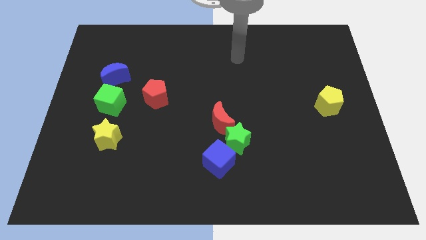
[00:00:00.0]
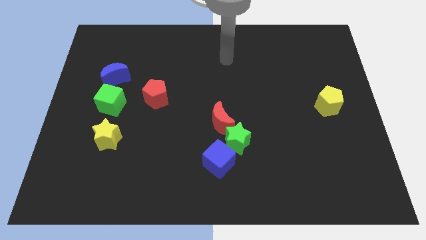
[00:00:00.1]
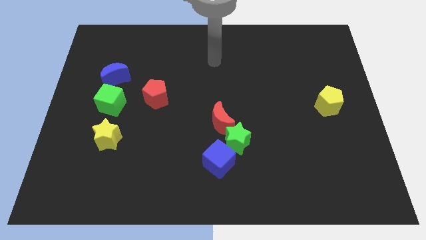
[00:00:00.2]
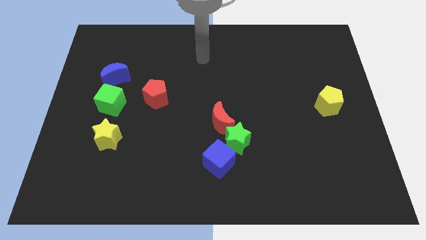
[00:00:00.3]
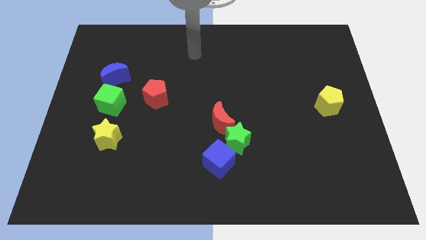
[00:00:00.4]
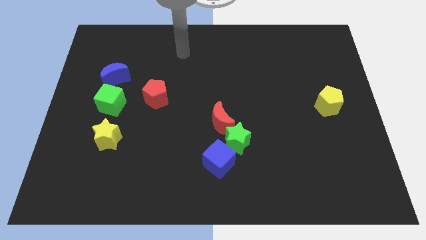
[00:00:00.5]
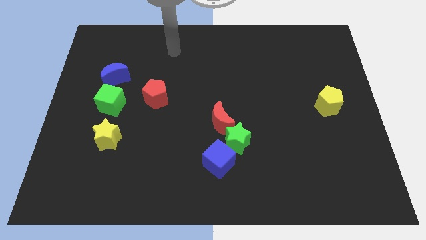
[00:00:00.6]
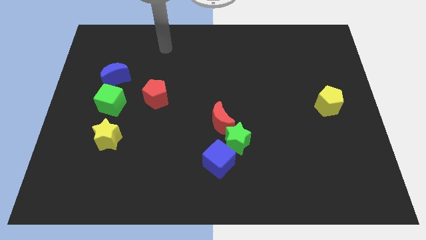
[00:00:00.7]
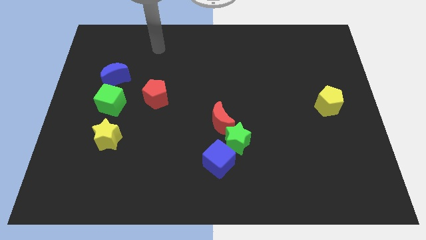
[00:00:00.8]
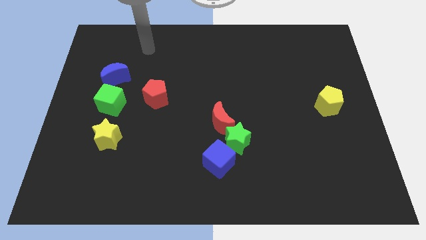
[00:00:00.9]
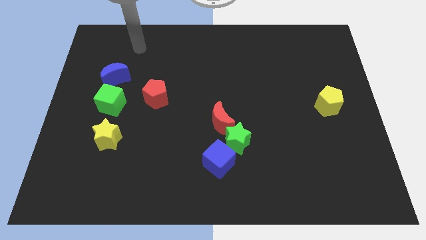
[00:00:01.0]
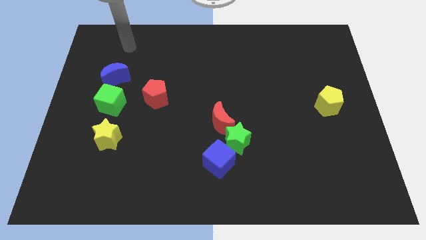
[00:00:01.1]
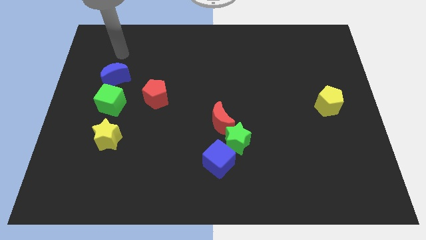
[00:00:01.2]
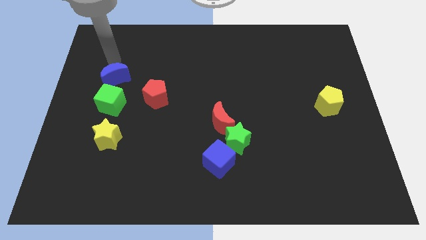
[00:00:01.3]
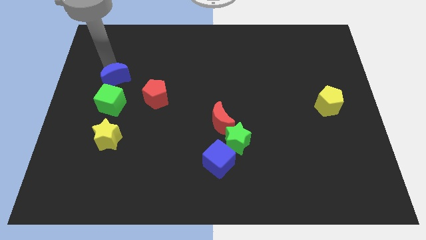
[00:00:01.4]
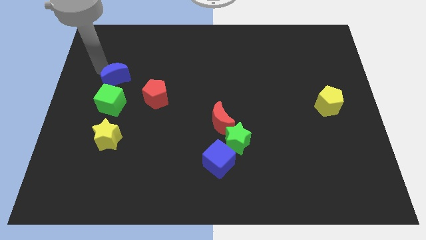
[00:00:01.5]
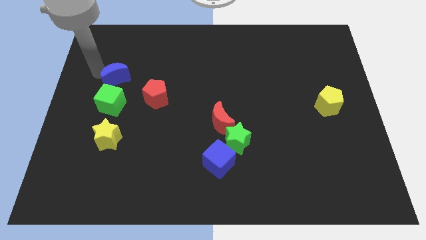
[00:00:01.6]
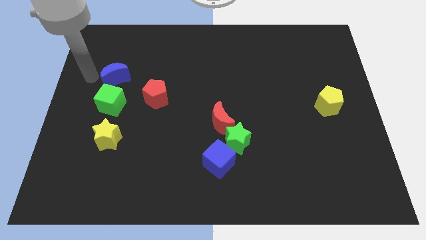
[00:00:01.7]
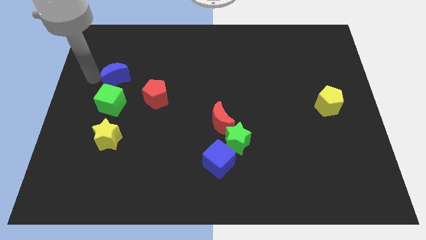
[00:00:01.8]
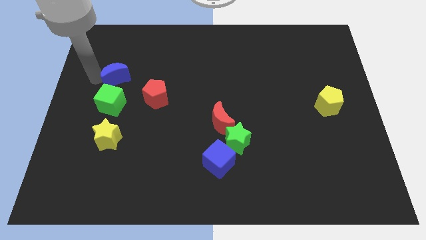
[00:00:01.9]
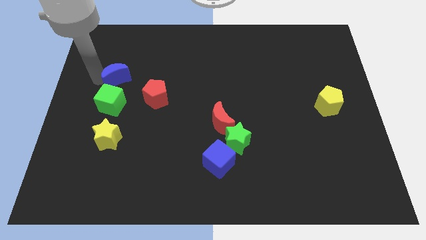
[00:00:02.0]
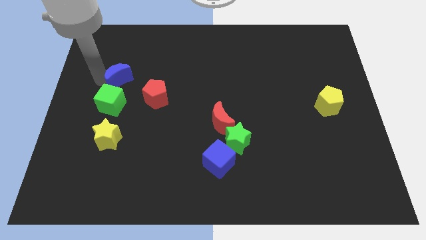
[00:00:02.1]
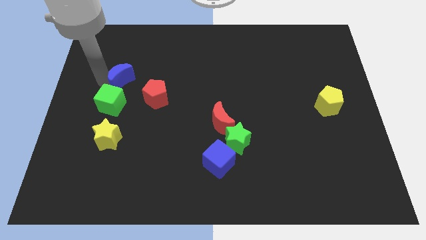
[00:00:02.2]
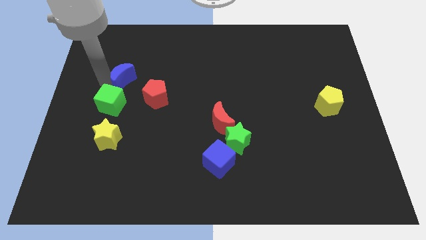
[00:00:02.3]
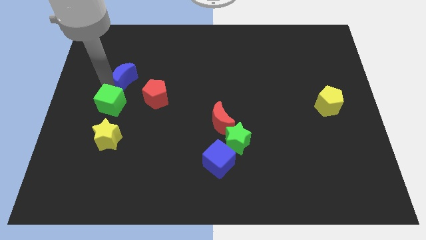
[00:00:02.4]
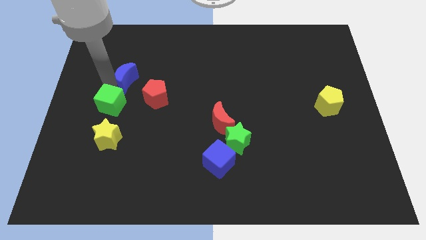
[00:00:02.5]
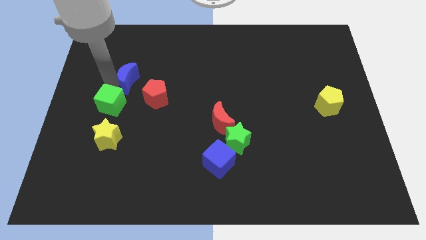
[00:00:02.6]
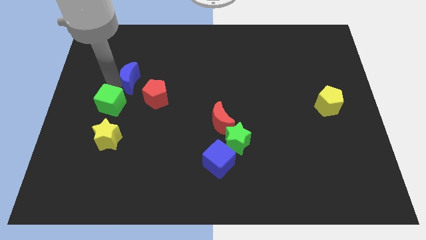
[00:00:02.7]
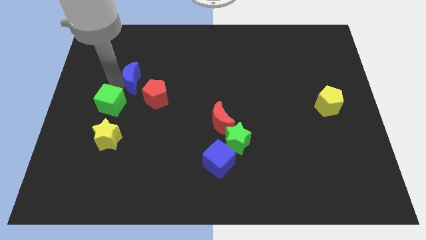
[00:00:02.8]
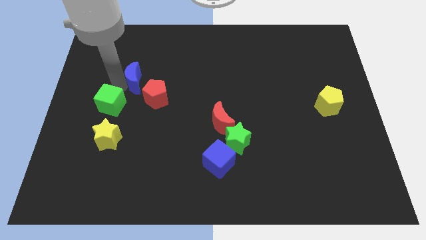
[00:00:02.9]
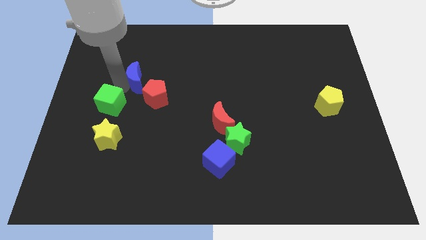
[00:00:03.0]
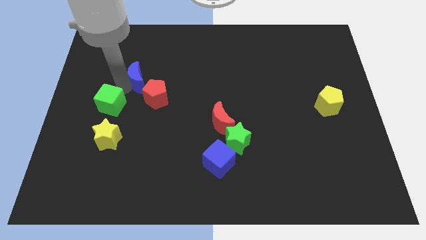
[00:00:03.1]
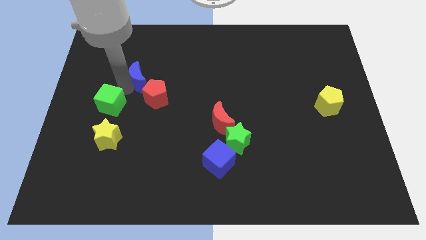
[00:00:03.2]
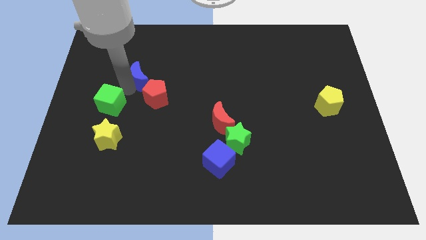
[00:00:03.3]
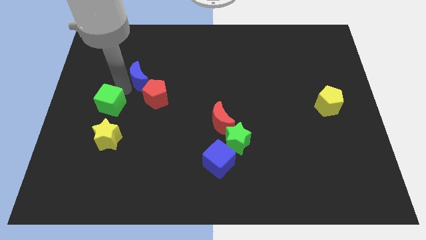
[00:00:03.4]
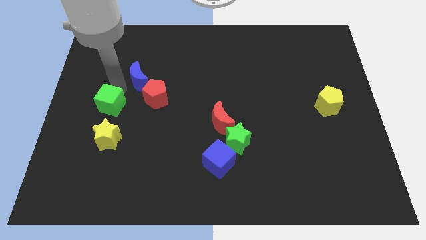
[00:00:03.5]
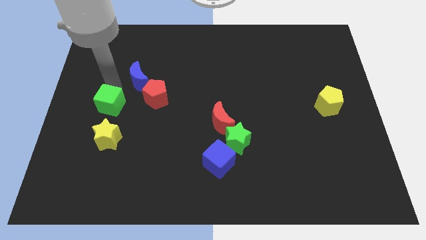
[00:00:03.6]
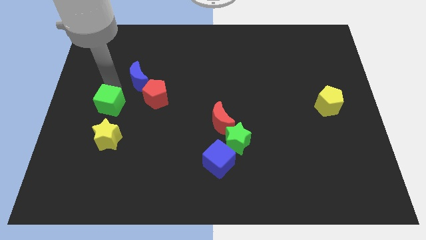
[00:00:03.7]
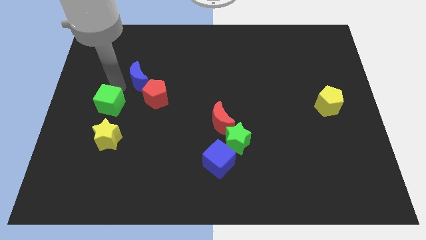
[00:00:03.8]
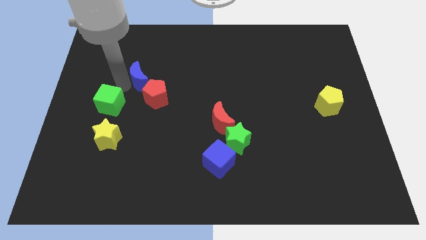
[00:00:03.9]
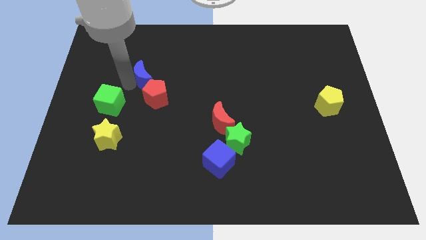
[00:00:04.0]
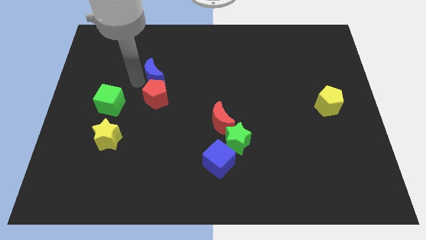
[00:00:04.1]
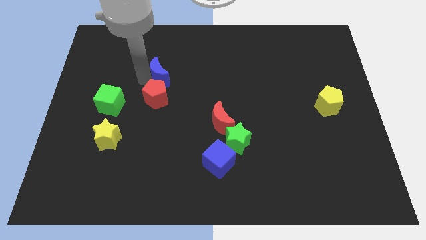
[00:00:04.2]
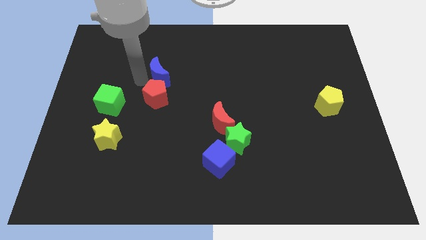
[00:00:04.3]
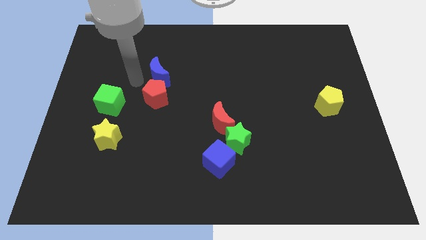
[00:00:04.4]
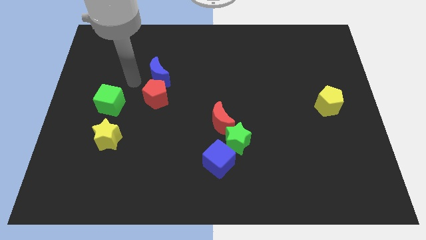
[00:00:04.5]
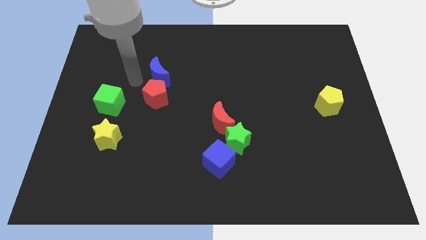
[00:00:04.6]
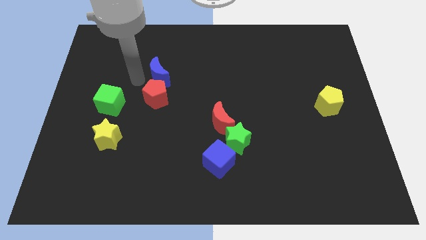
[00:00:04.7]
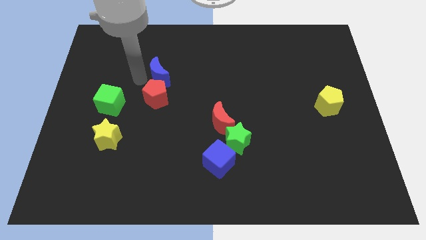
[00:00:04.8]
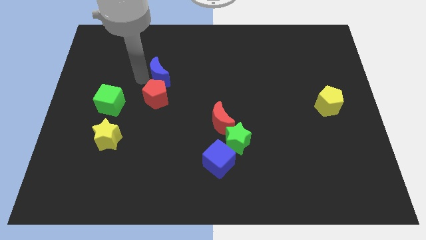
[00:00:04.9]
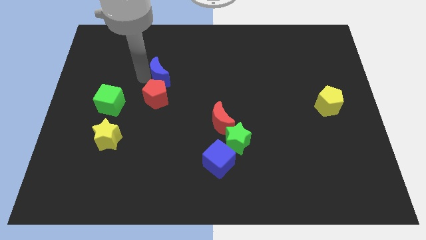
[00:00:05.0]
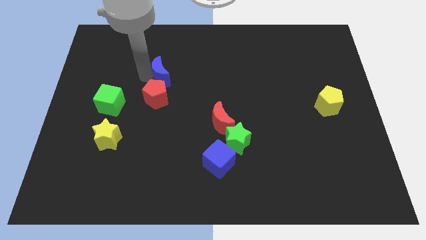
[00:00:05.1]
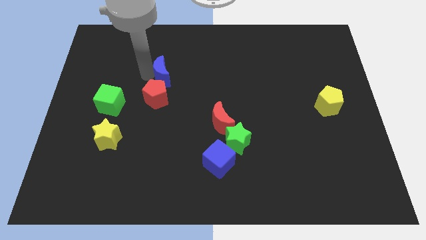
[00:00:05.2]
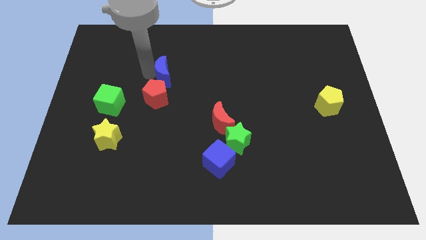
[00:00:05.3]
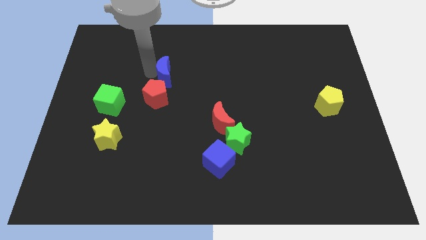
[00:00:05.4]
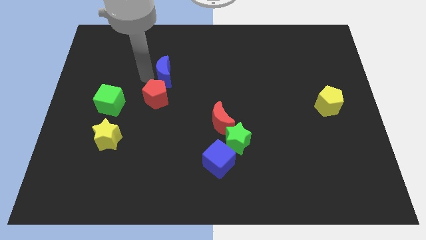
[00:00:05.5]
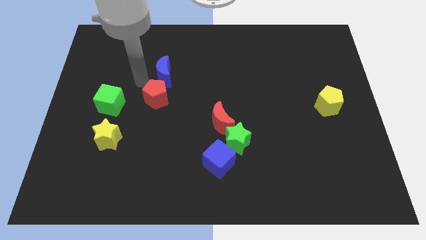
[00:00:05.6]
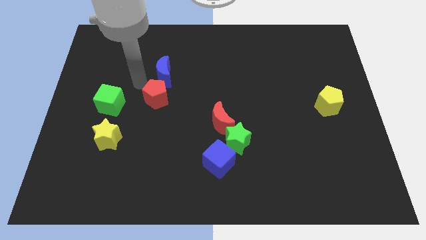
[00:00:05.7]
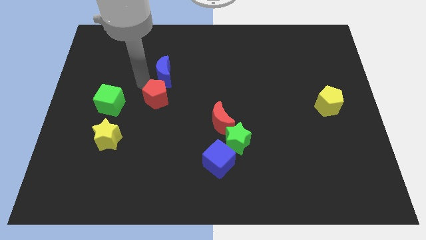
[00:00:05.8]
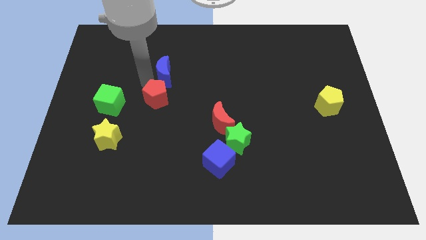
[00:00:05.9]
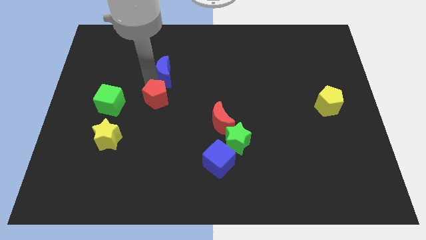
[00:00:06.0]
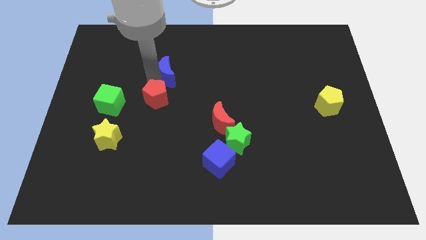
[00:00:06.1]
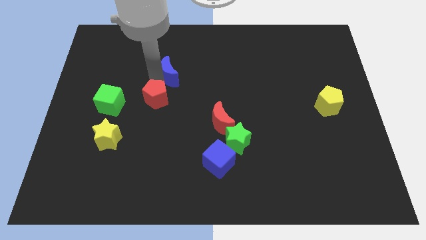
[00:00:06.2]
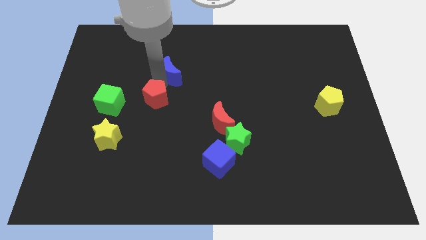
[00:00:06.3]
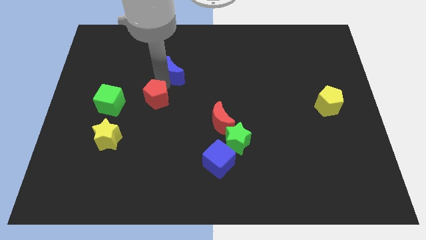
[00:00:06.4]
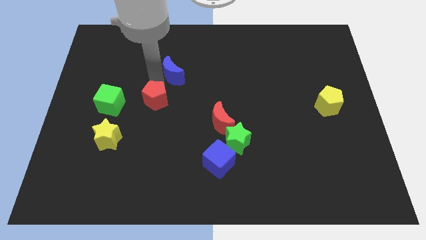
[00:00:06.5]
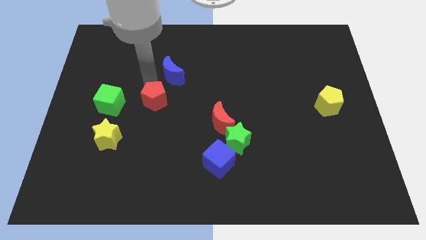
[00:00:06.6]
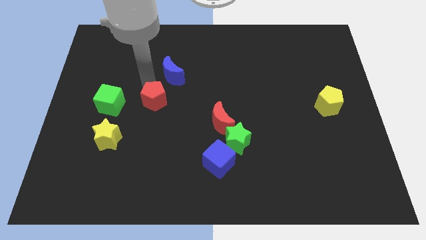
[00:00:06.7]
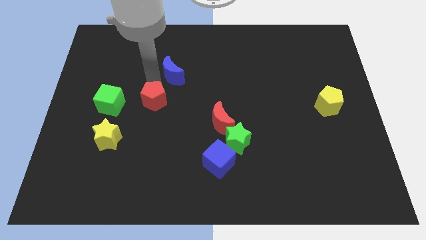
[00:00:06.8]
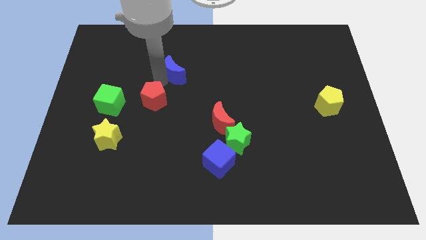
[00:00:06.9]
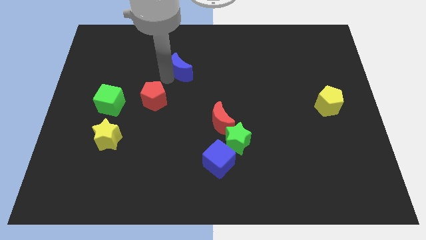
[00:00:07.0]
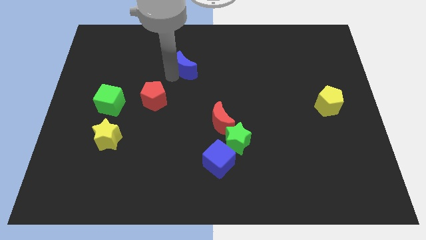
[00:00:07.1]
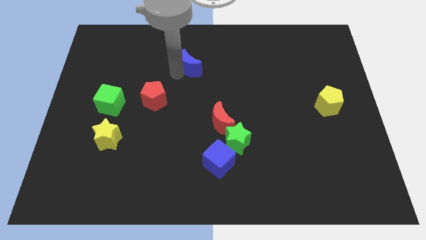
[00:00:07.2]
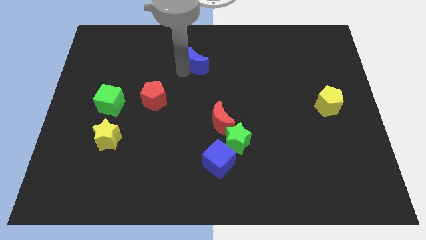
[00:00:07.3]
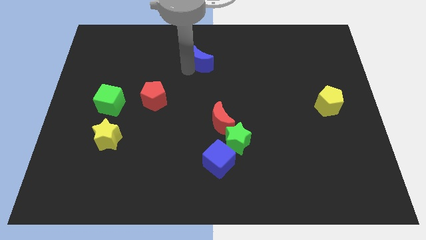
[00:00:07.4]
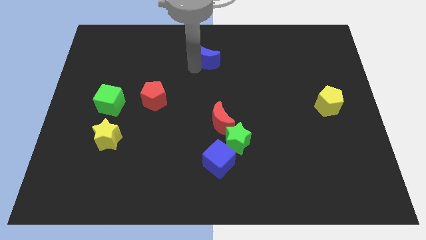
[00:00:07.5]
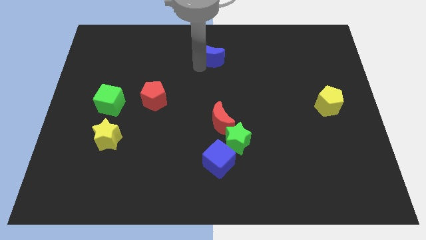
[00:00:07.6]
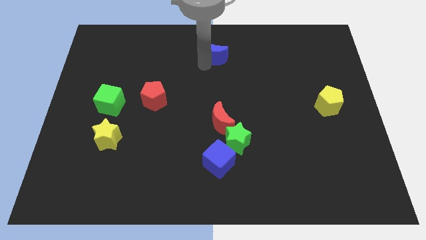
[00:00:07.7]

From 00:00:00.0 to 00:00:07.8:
slide the blue moon to the towards your base
